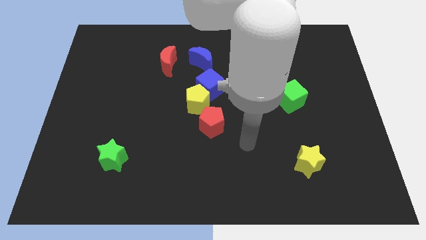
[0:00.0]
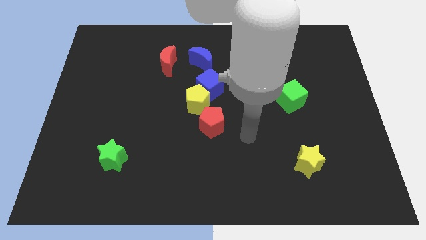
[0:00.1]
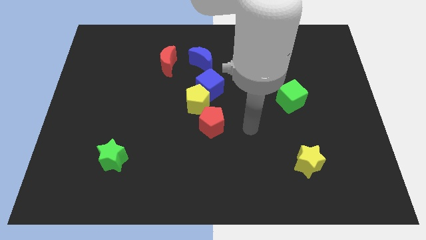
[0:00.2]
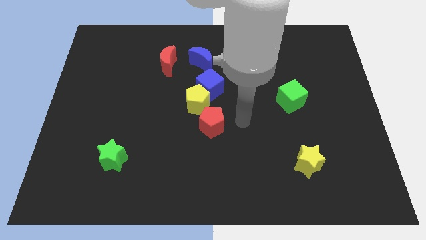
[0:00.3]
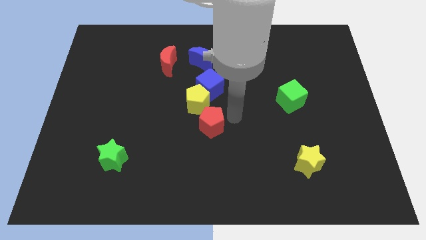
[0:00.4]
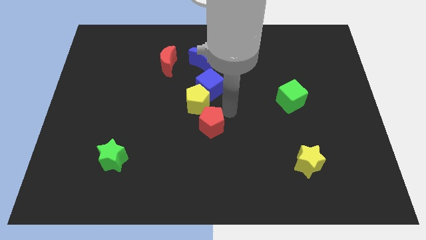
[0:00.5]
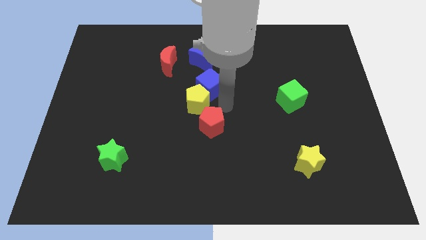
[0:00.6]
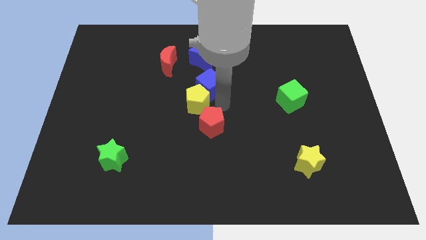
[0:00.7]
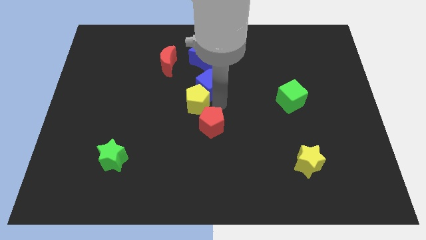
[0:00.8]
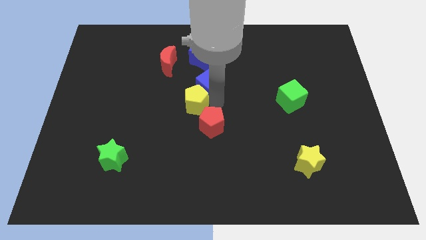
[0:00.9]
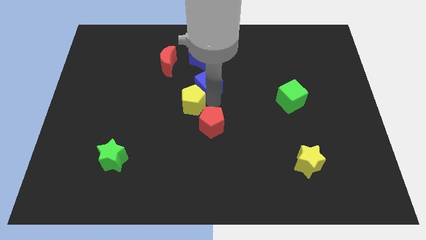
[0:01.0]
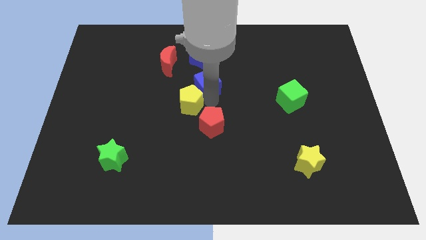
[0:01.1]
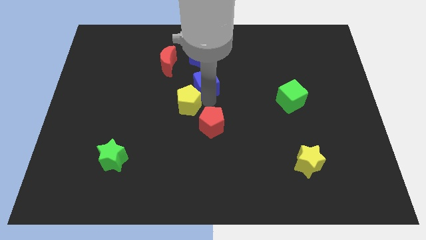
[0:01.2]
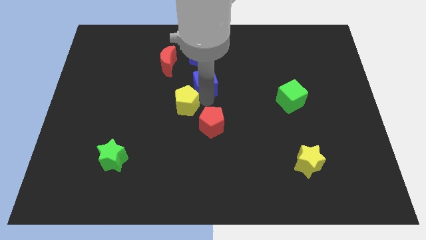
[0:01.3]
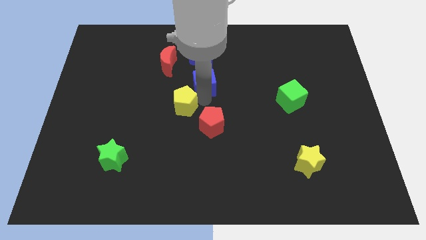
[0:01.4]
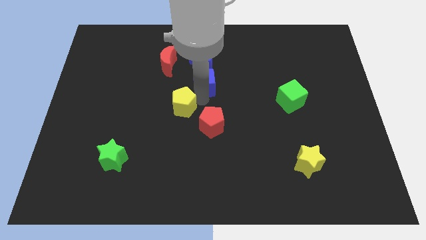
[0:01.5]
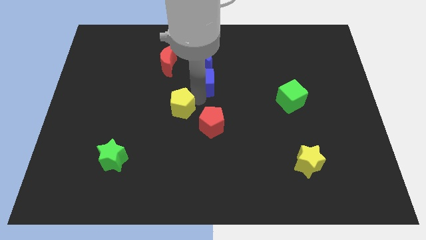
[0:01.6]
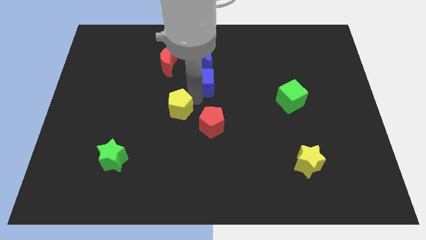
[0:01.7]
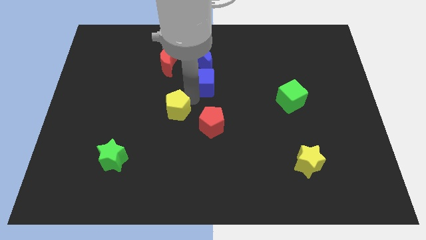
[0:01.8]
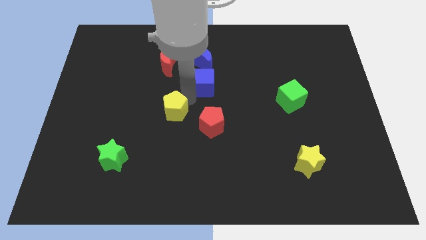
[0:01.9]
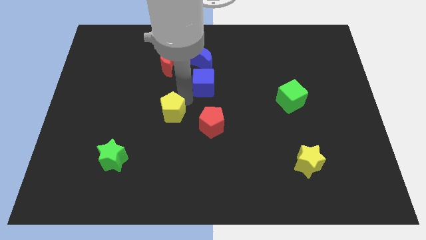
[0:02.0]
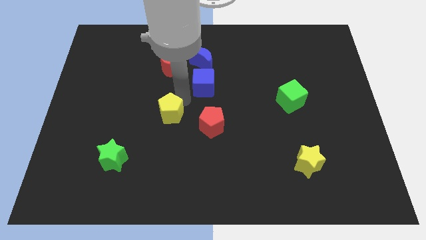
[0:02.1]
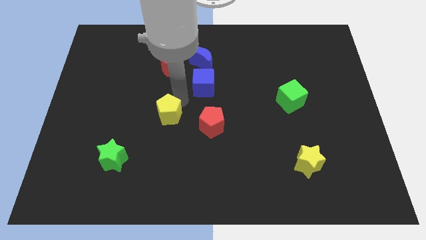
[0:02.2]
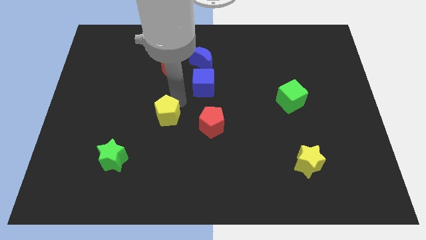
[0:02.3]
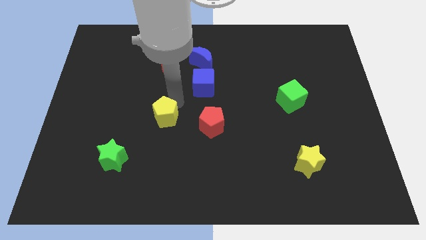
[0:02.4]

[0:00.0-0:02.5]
separate the yellow pentagon from the blue cube and red pentagon

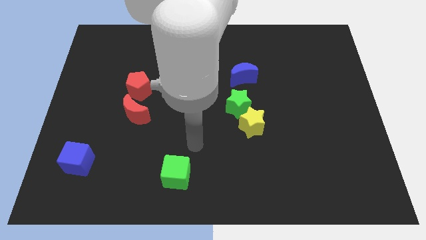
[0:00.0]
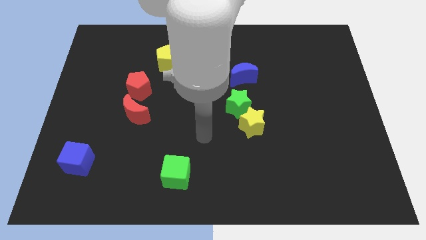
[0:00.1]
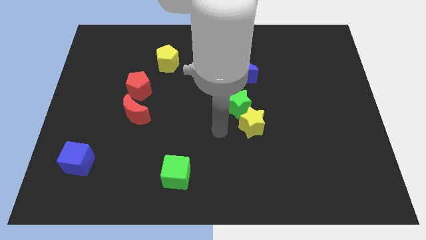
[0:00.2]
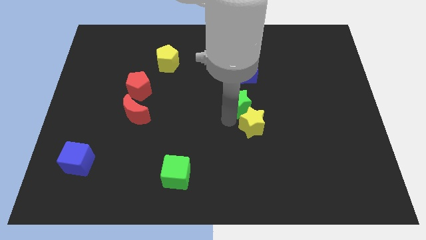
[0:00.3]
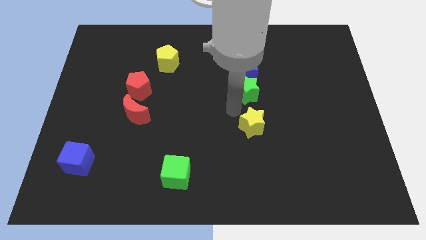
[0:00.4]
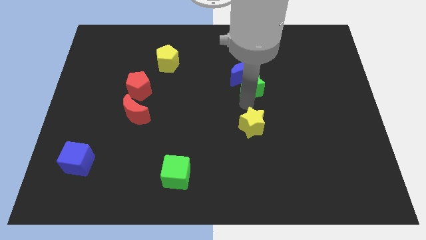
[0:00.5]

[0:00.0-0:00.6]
separate the yellow star from the green star

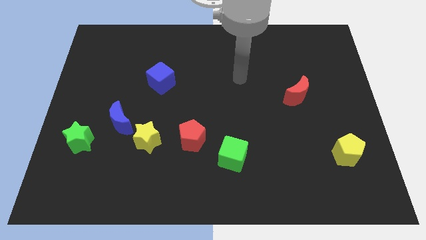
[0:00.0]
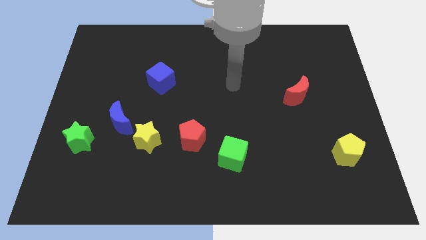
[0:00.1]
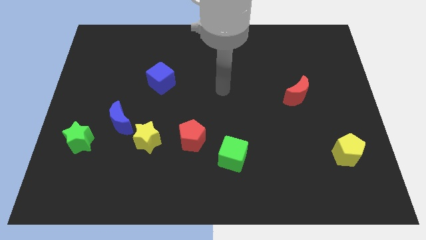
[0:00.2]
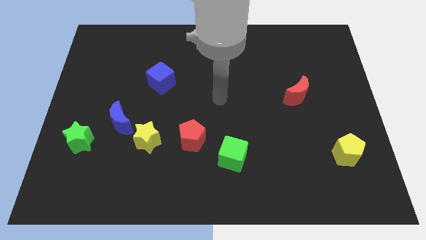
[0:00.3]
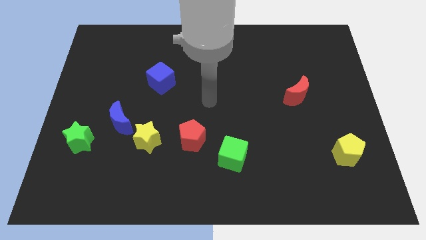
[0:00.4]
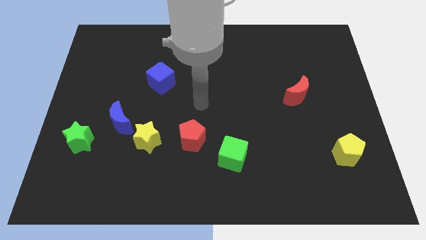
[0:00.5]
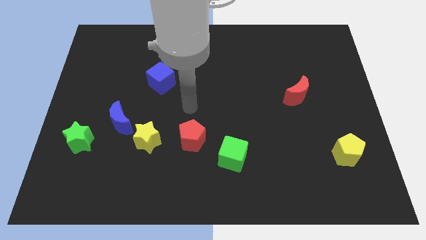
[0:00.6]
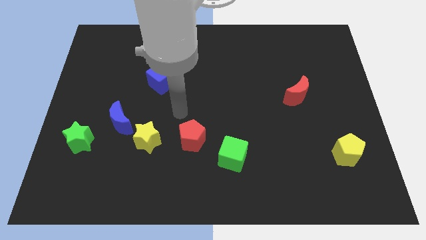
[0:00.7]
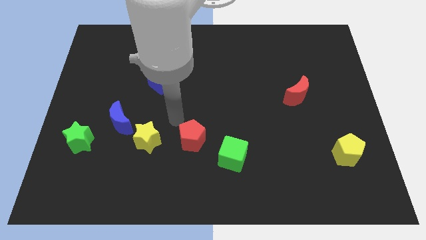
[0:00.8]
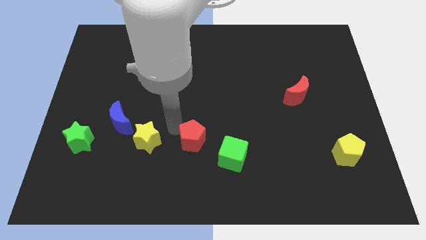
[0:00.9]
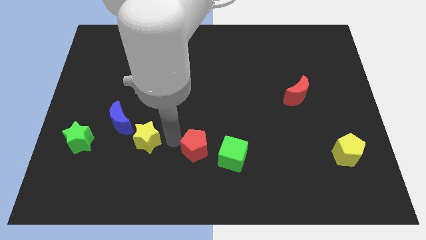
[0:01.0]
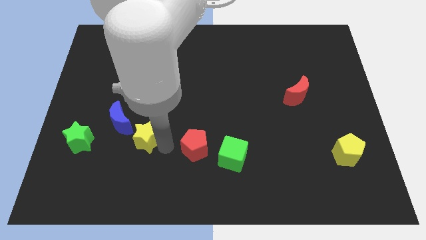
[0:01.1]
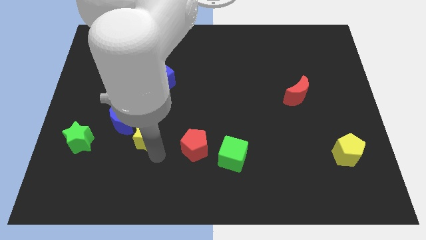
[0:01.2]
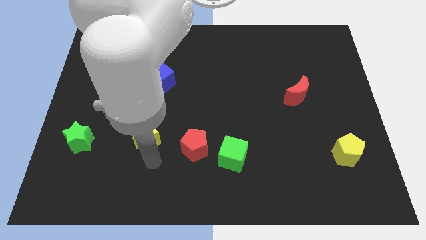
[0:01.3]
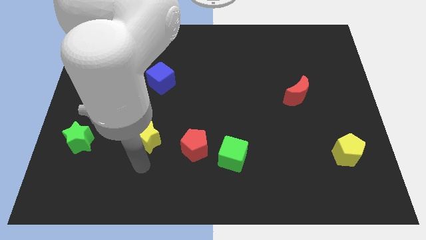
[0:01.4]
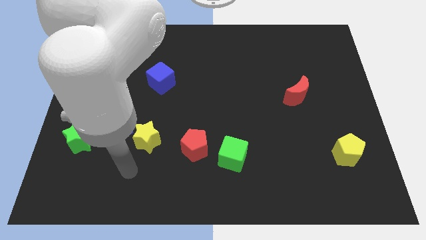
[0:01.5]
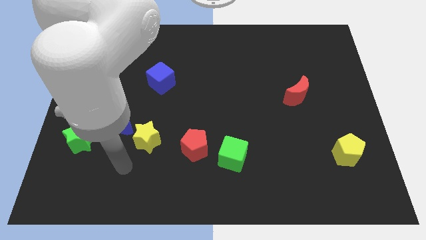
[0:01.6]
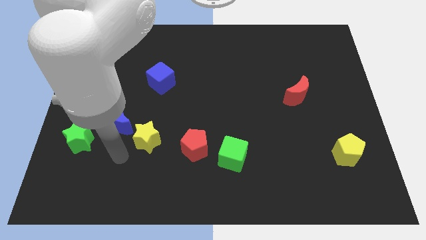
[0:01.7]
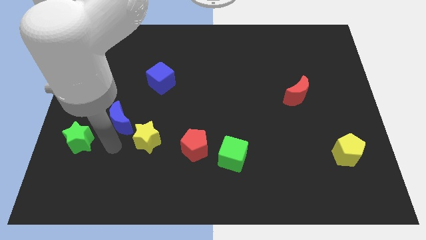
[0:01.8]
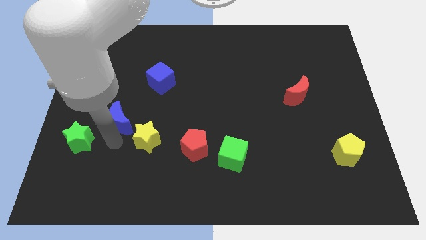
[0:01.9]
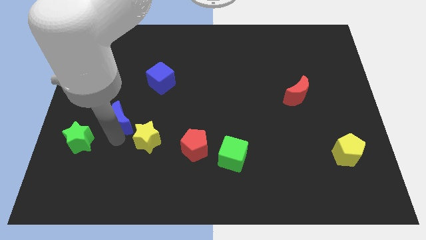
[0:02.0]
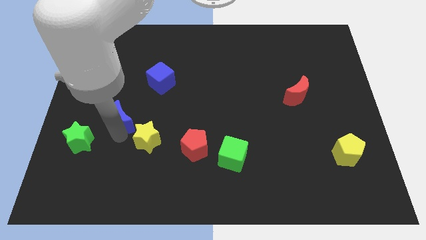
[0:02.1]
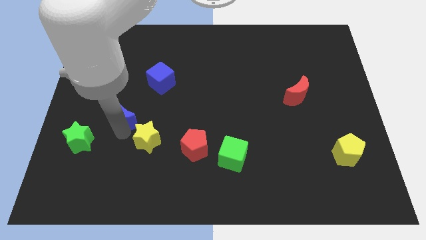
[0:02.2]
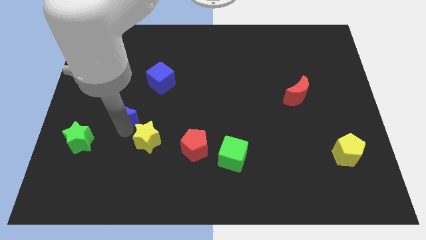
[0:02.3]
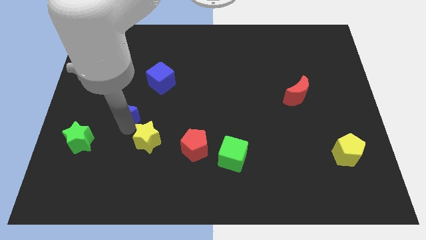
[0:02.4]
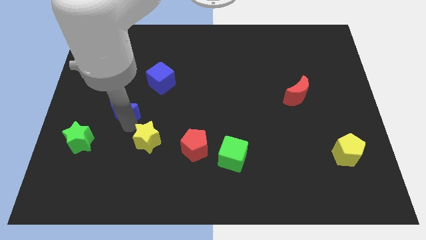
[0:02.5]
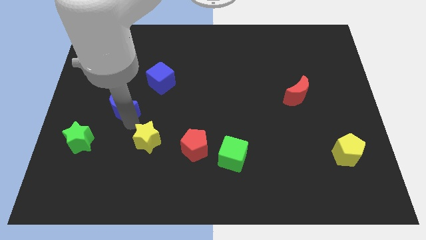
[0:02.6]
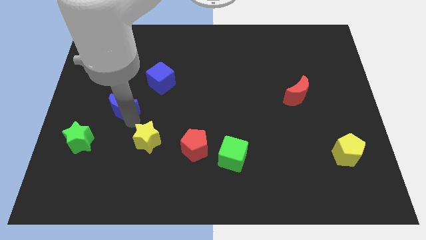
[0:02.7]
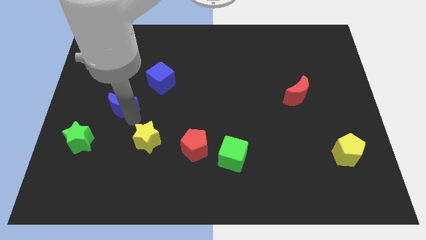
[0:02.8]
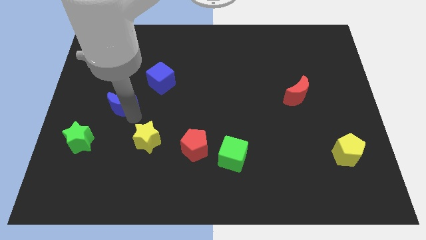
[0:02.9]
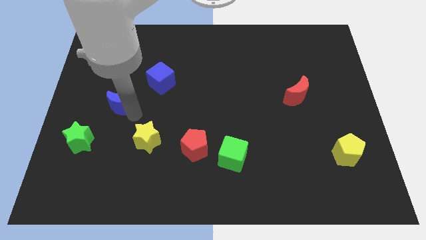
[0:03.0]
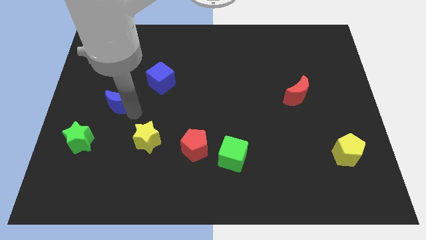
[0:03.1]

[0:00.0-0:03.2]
separate the blue moon from the yellow star and green star

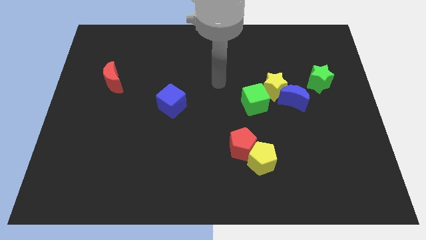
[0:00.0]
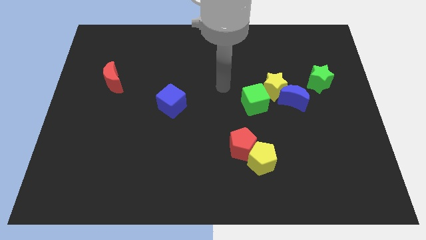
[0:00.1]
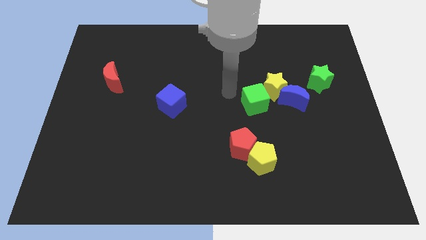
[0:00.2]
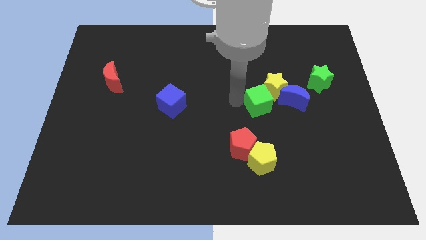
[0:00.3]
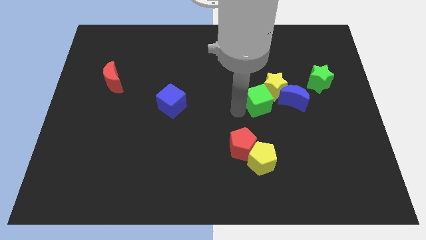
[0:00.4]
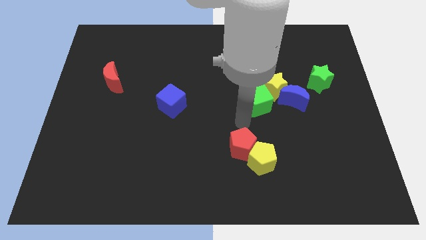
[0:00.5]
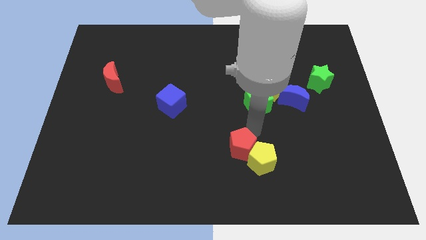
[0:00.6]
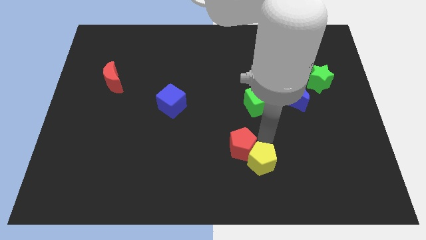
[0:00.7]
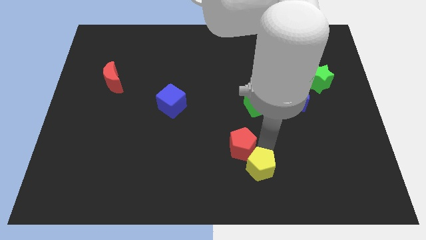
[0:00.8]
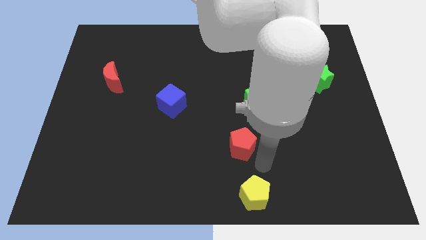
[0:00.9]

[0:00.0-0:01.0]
pull the red pentagon apart from the yellow pentagon

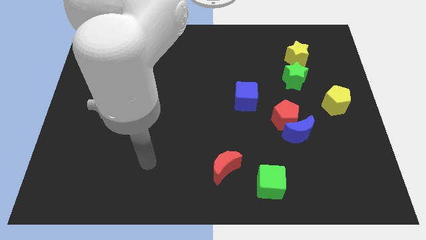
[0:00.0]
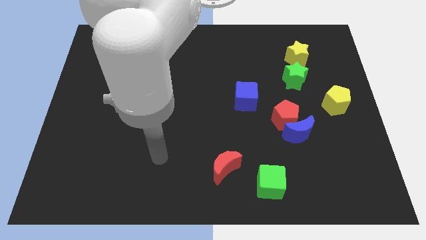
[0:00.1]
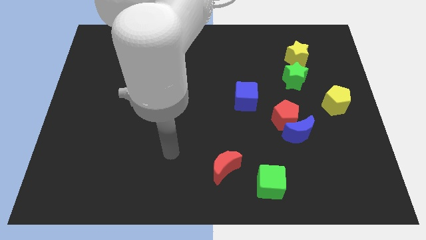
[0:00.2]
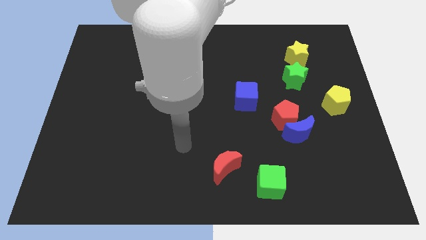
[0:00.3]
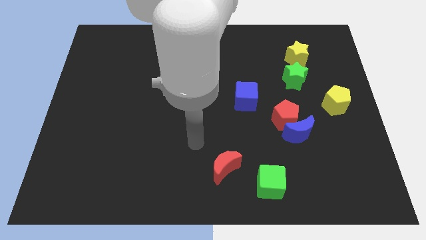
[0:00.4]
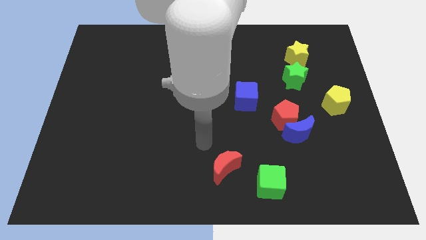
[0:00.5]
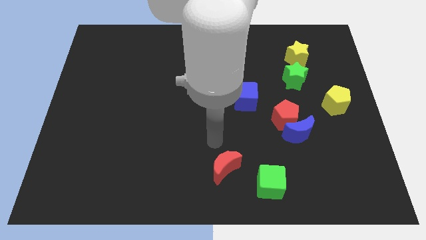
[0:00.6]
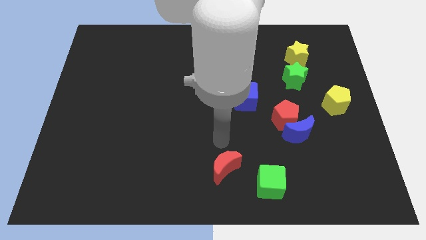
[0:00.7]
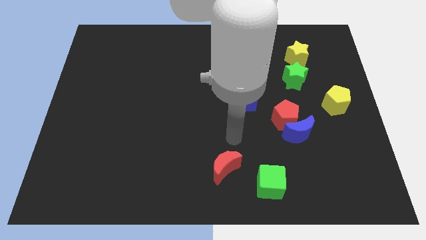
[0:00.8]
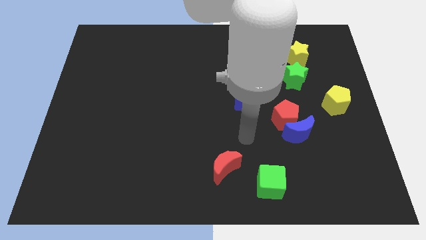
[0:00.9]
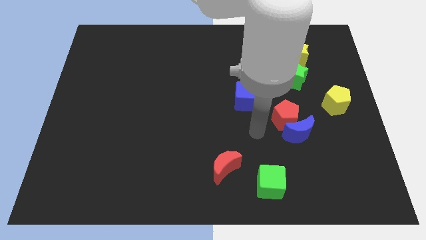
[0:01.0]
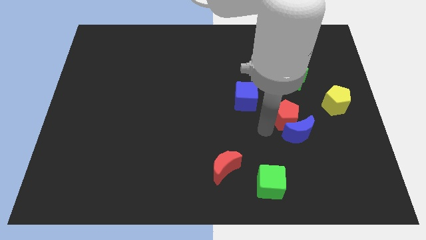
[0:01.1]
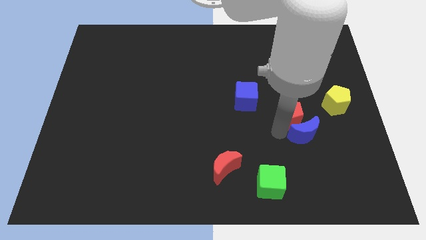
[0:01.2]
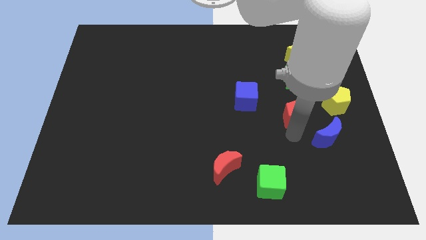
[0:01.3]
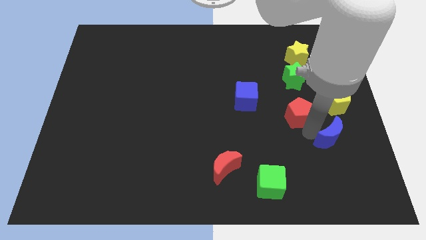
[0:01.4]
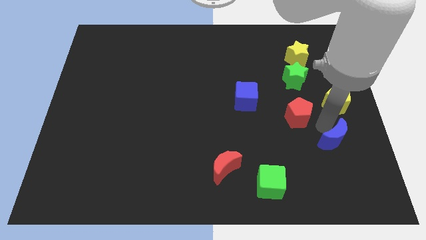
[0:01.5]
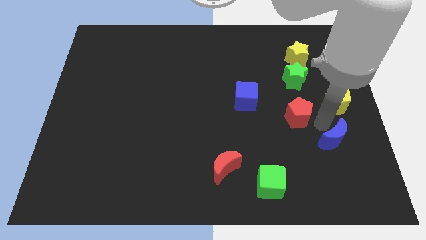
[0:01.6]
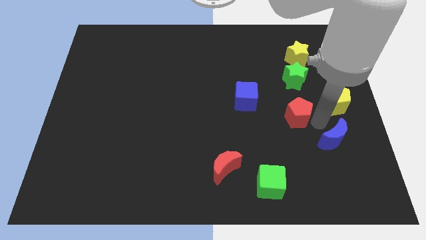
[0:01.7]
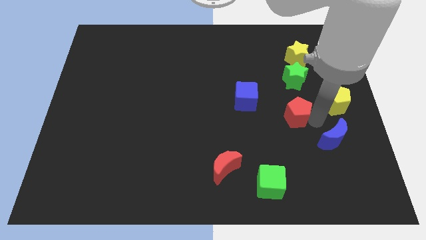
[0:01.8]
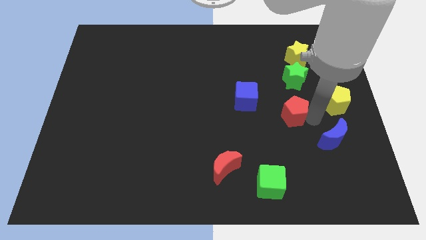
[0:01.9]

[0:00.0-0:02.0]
separate the red pentagon from the blue moon

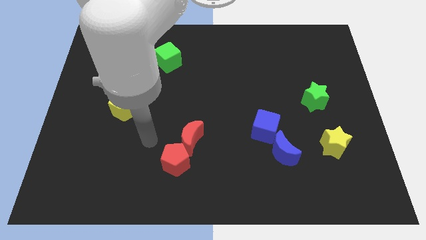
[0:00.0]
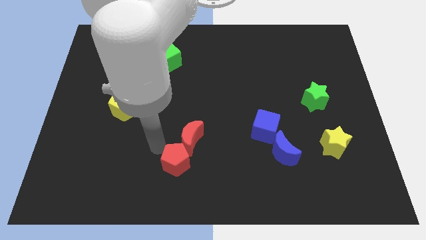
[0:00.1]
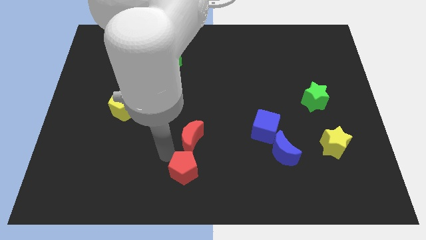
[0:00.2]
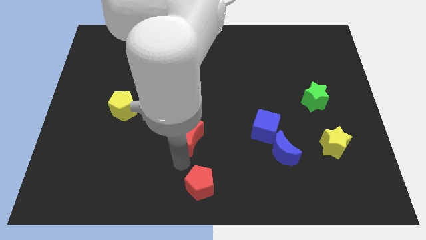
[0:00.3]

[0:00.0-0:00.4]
pull the red moon apart from the red pentagon
